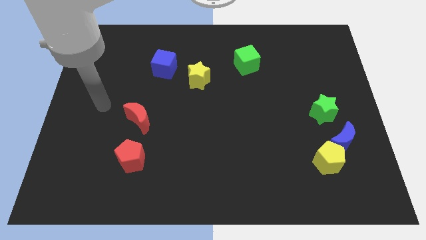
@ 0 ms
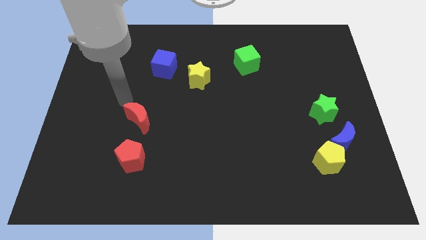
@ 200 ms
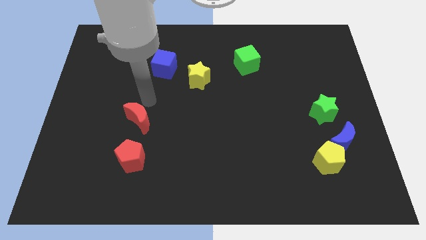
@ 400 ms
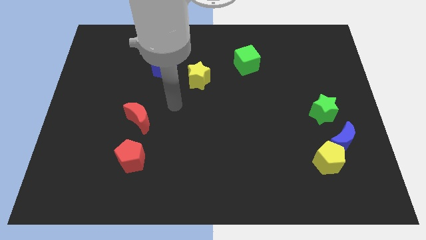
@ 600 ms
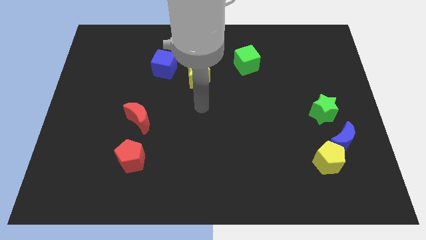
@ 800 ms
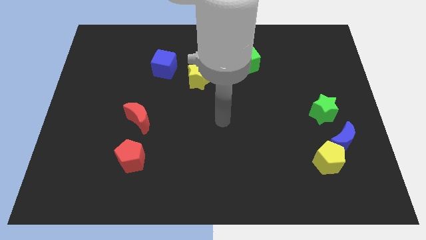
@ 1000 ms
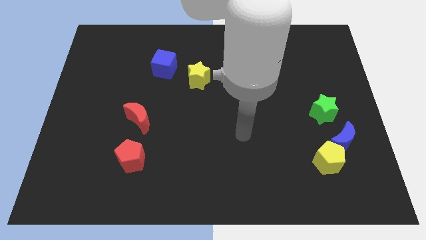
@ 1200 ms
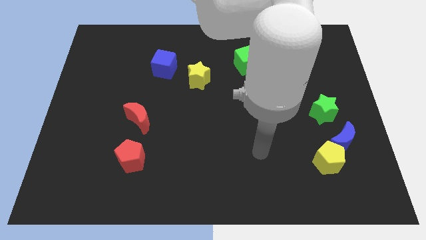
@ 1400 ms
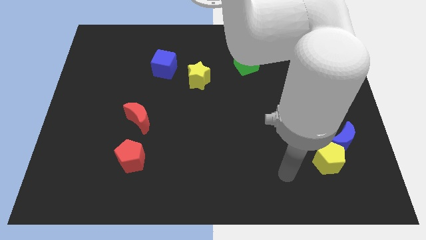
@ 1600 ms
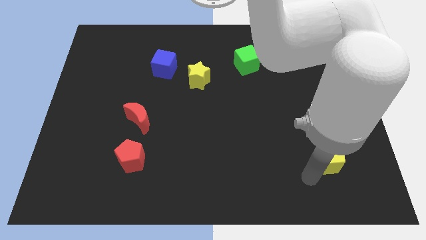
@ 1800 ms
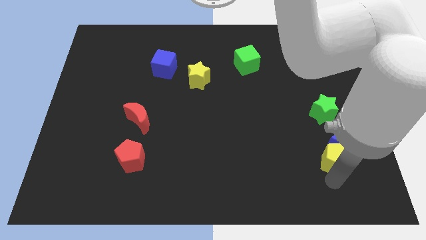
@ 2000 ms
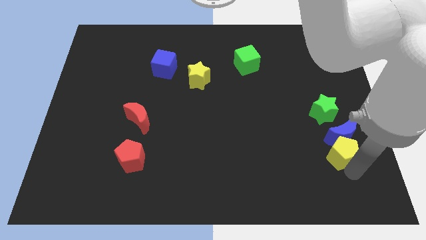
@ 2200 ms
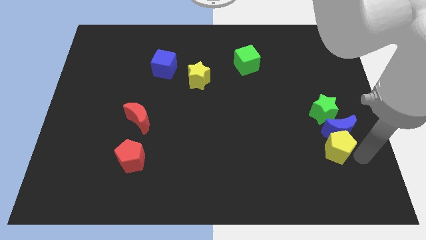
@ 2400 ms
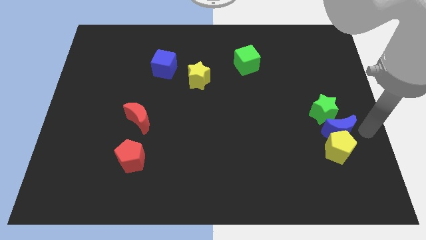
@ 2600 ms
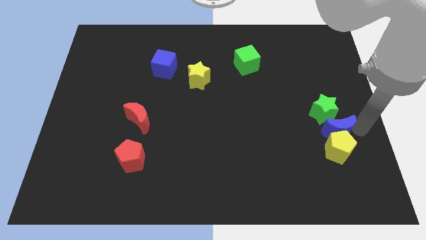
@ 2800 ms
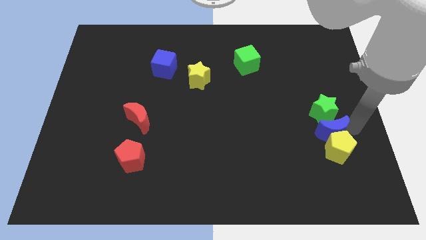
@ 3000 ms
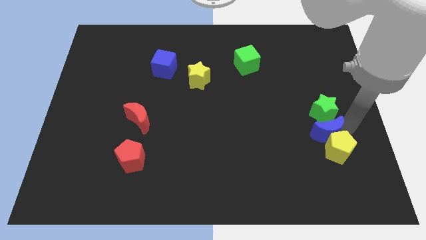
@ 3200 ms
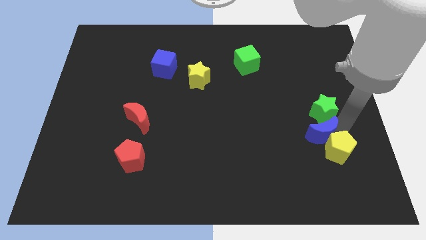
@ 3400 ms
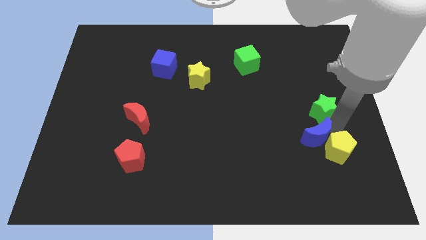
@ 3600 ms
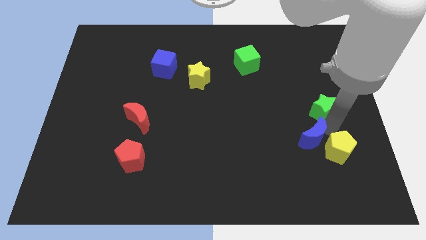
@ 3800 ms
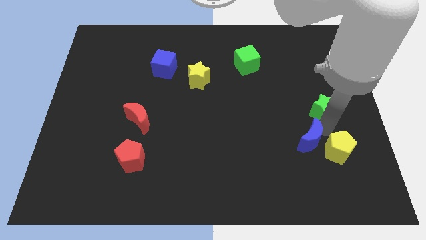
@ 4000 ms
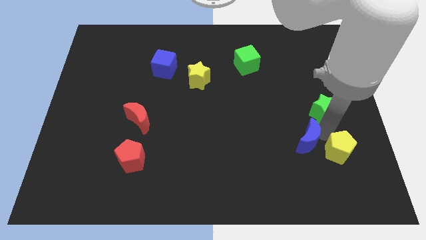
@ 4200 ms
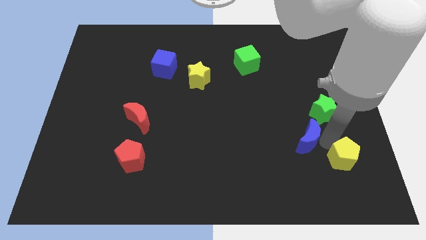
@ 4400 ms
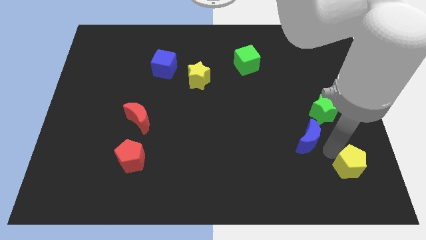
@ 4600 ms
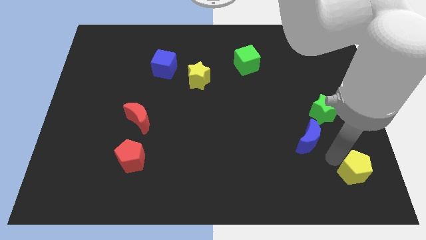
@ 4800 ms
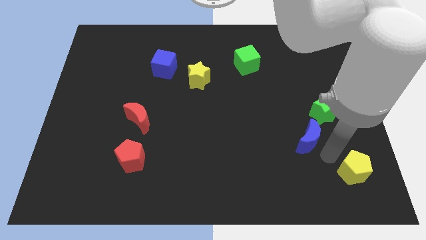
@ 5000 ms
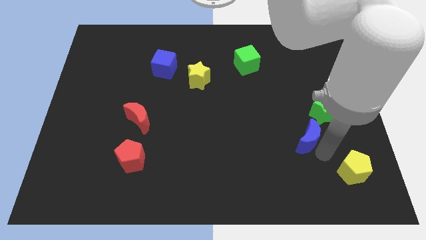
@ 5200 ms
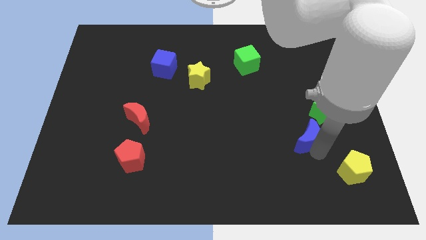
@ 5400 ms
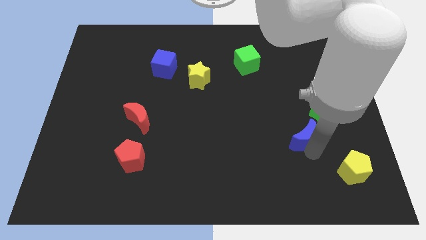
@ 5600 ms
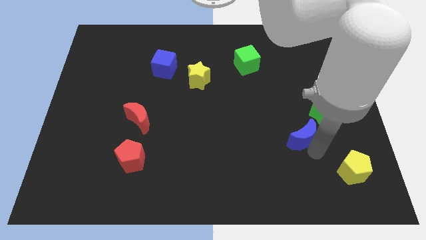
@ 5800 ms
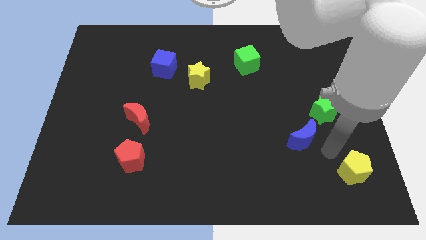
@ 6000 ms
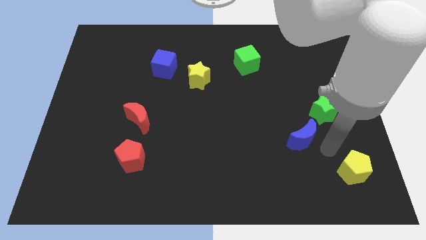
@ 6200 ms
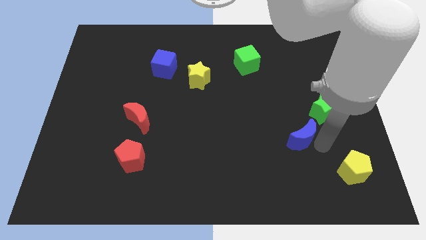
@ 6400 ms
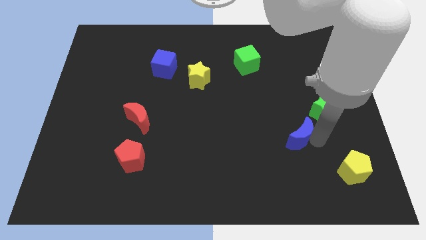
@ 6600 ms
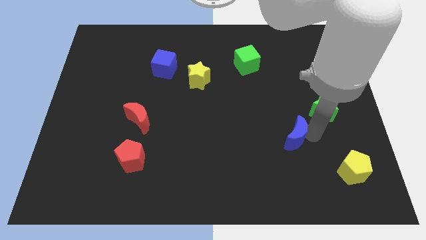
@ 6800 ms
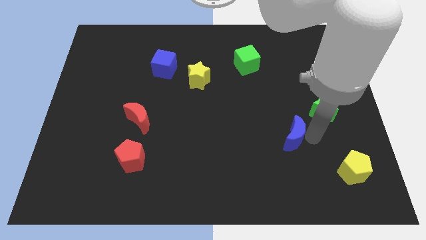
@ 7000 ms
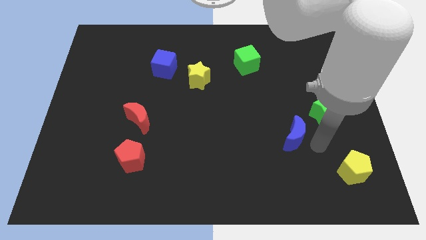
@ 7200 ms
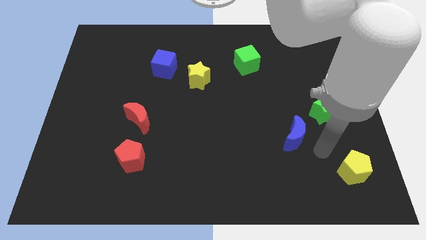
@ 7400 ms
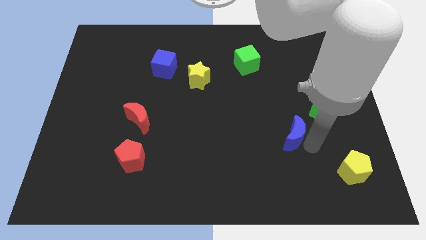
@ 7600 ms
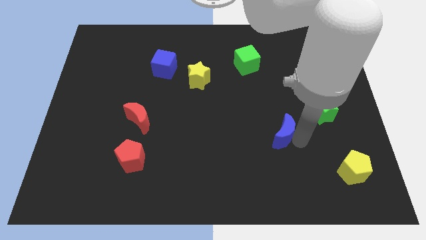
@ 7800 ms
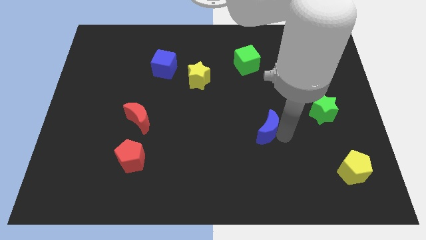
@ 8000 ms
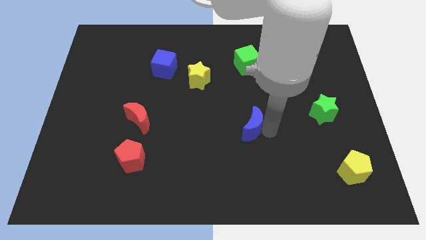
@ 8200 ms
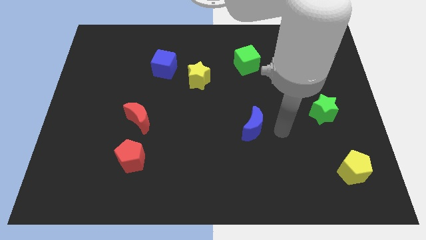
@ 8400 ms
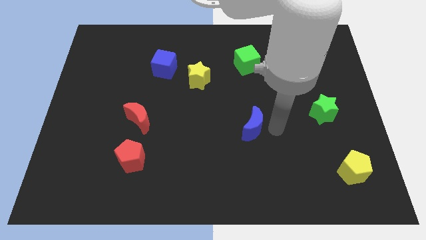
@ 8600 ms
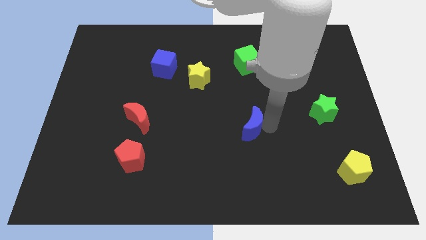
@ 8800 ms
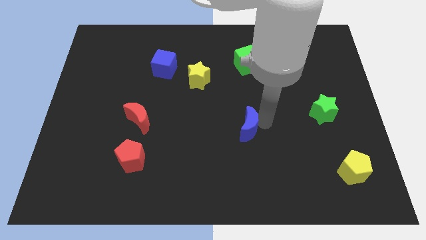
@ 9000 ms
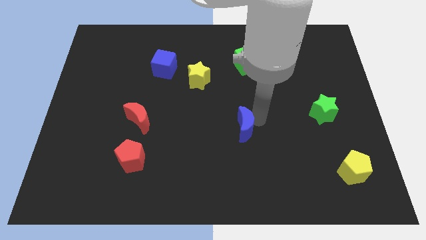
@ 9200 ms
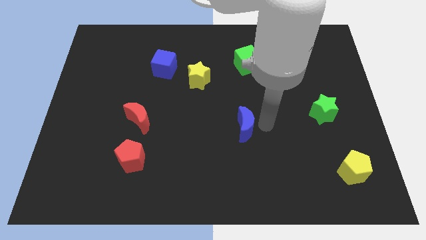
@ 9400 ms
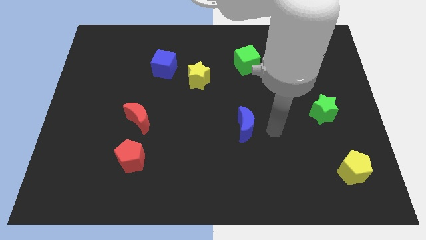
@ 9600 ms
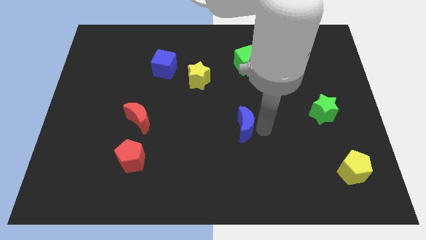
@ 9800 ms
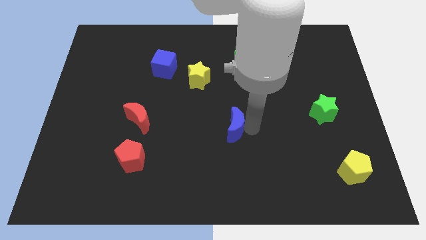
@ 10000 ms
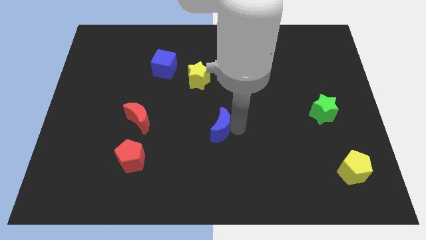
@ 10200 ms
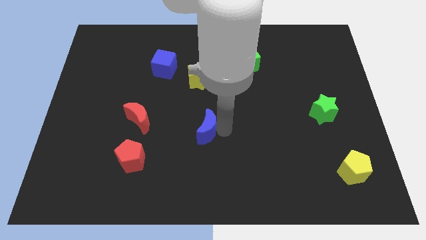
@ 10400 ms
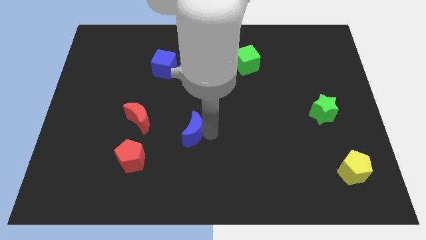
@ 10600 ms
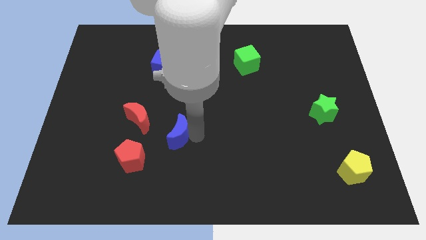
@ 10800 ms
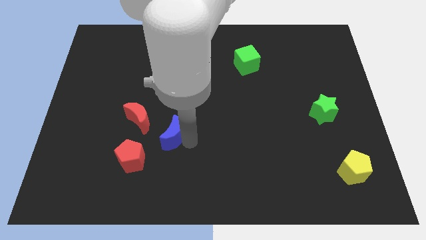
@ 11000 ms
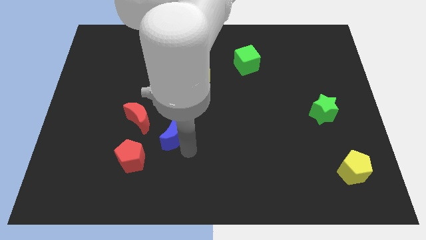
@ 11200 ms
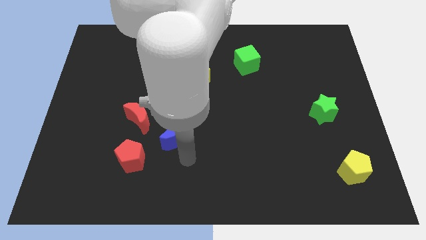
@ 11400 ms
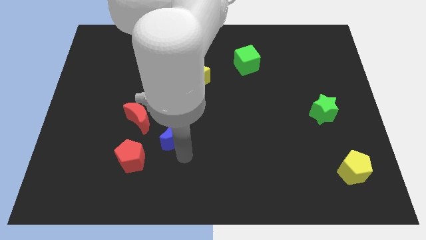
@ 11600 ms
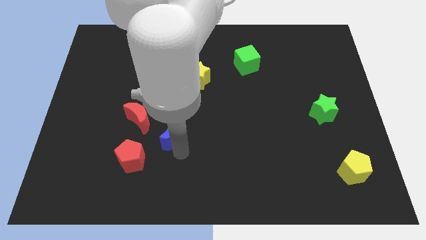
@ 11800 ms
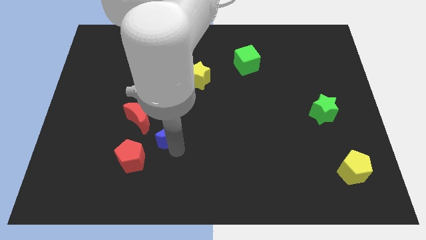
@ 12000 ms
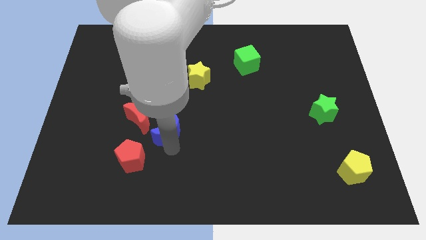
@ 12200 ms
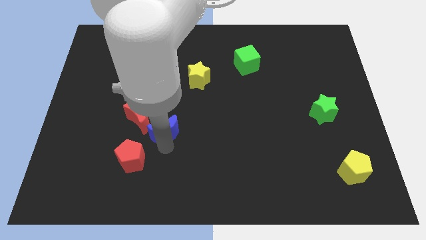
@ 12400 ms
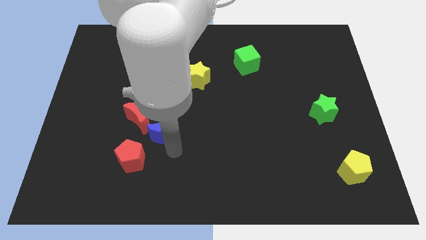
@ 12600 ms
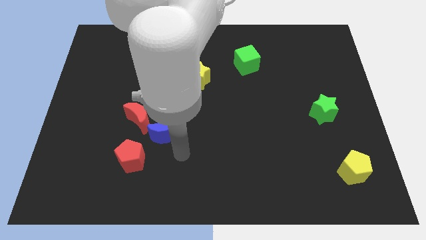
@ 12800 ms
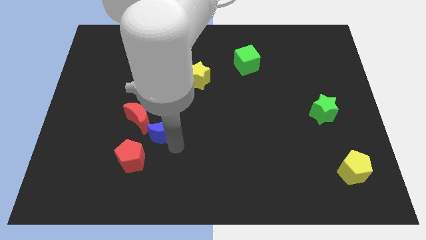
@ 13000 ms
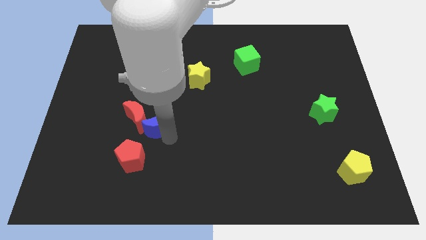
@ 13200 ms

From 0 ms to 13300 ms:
move the blue moon next to the red moon

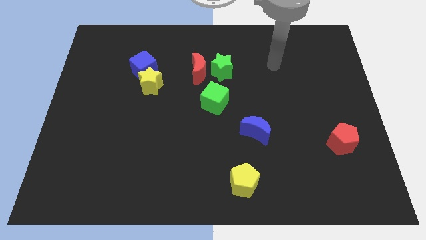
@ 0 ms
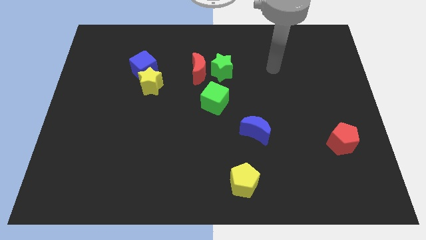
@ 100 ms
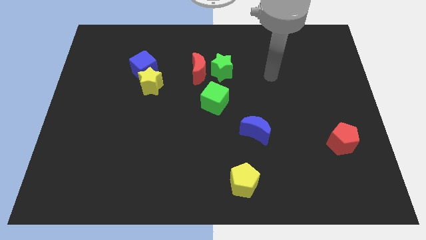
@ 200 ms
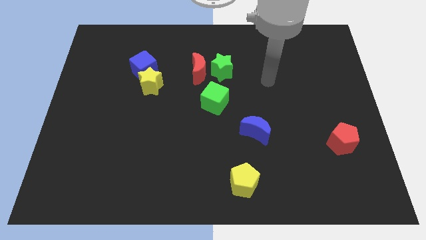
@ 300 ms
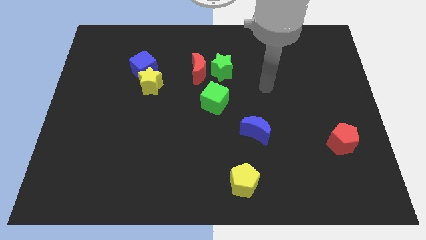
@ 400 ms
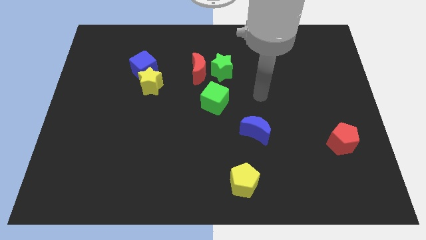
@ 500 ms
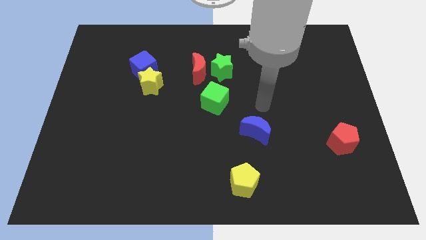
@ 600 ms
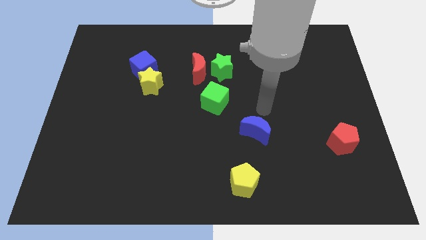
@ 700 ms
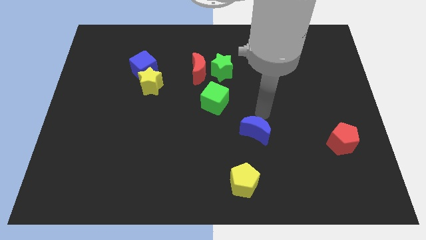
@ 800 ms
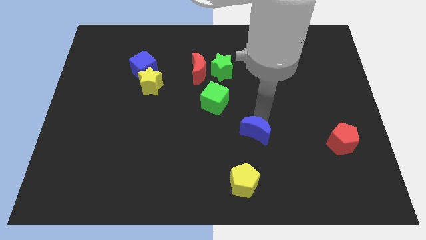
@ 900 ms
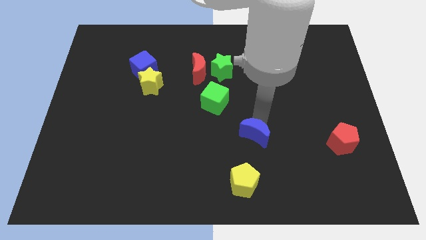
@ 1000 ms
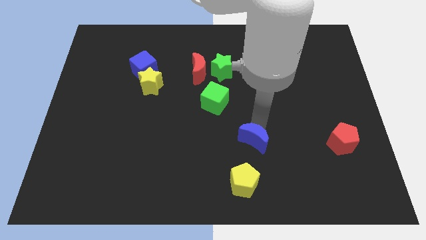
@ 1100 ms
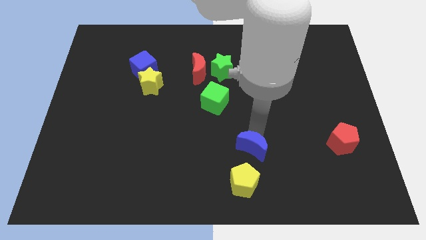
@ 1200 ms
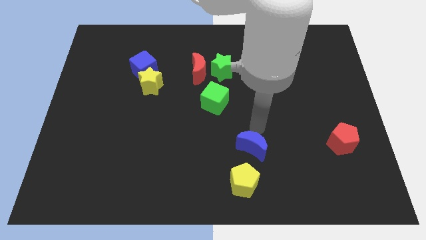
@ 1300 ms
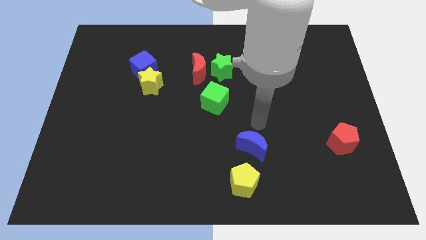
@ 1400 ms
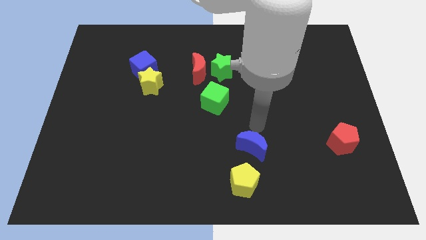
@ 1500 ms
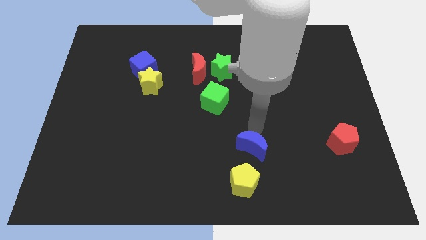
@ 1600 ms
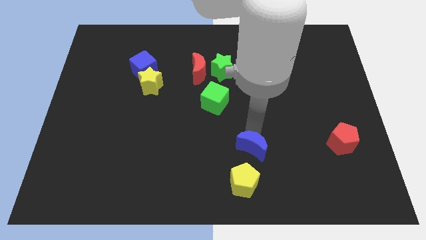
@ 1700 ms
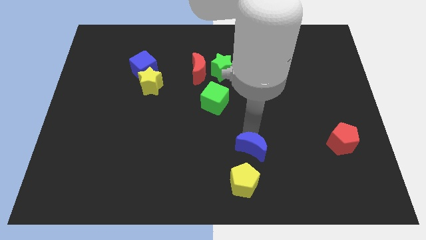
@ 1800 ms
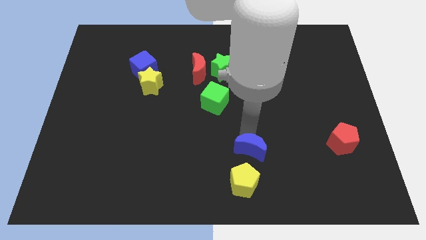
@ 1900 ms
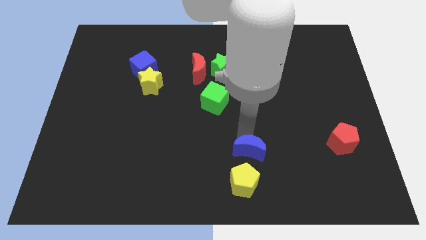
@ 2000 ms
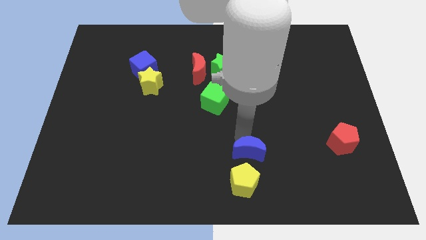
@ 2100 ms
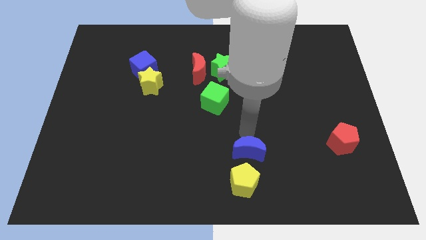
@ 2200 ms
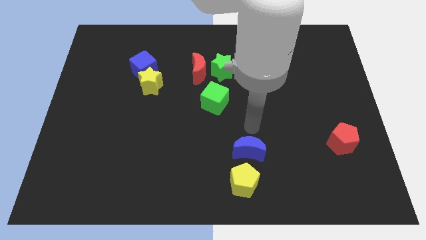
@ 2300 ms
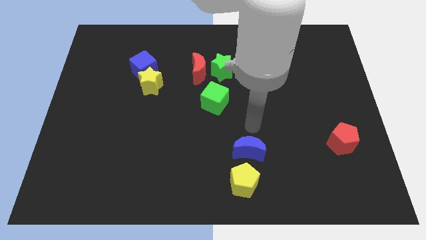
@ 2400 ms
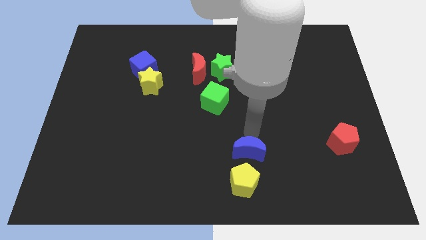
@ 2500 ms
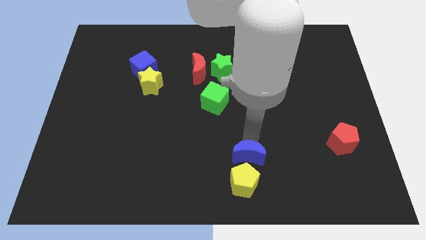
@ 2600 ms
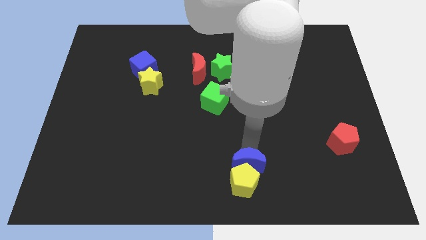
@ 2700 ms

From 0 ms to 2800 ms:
push the blue moon towards the yellow pentagon
